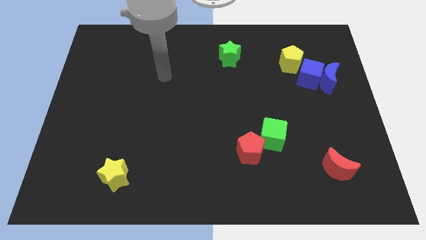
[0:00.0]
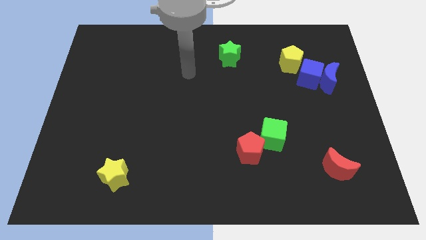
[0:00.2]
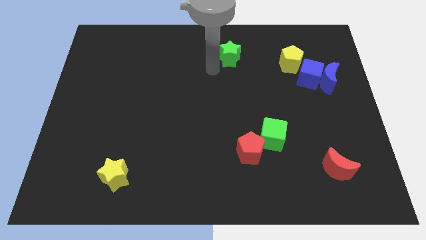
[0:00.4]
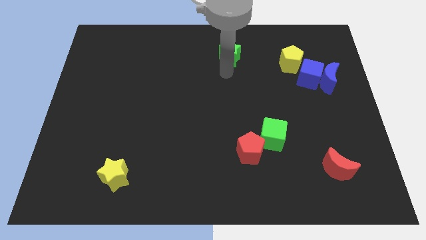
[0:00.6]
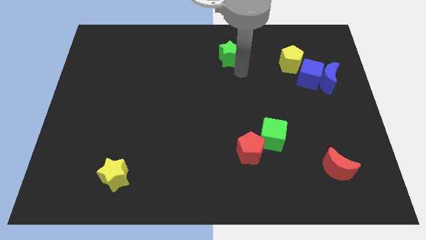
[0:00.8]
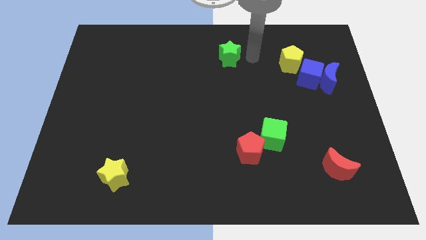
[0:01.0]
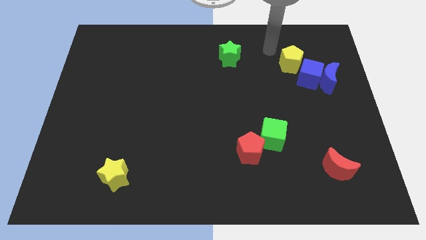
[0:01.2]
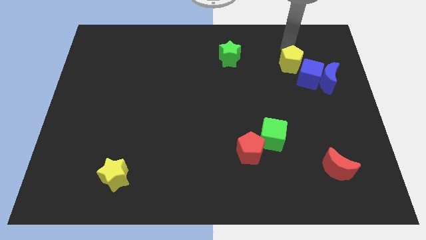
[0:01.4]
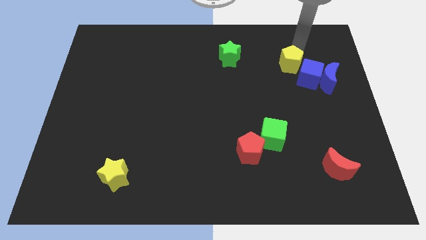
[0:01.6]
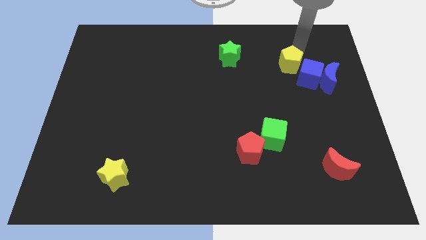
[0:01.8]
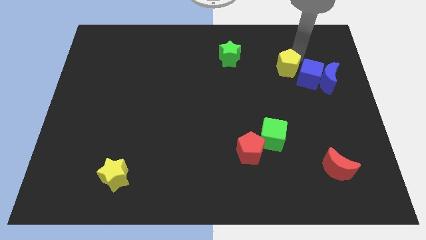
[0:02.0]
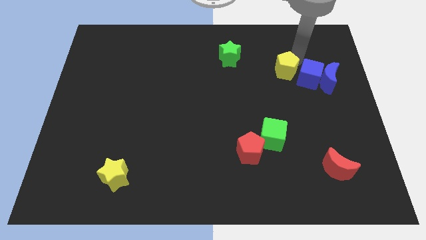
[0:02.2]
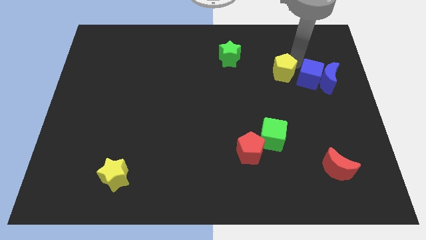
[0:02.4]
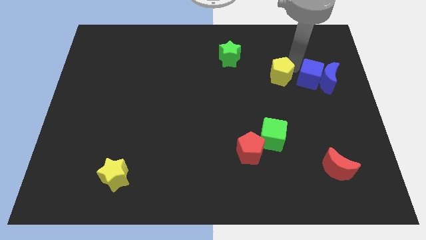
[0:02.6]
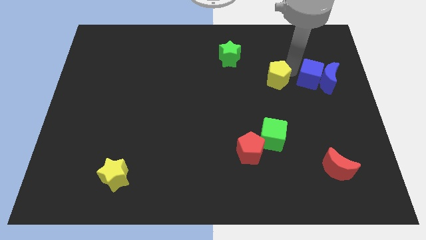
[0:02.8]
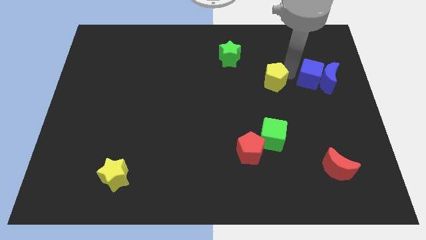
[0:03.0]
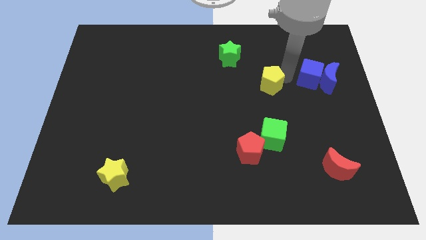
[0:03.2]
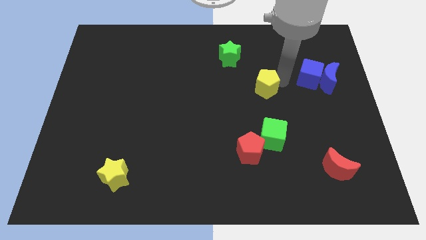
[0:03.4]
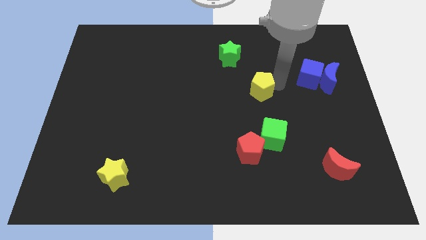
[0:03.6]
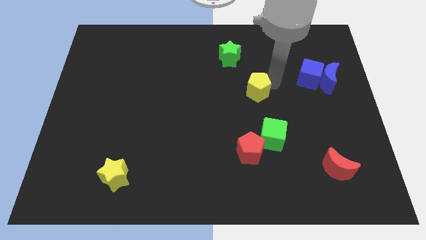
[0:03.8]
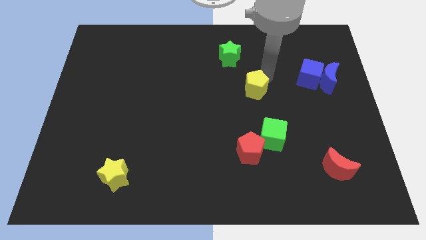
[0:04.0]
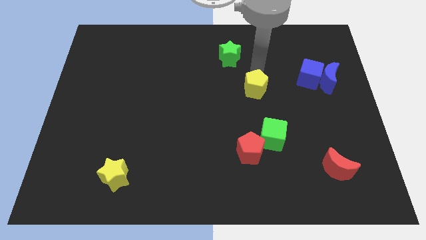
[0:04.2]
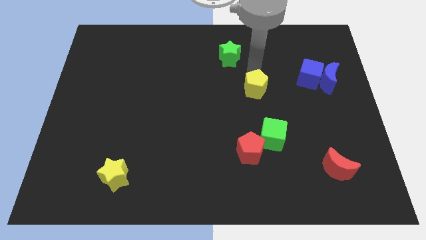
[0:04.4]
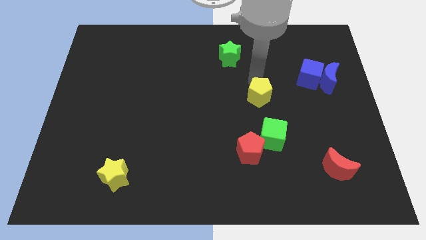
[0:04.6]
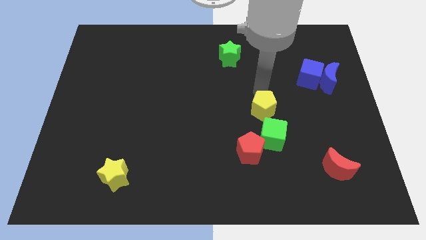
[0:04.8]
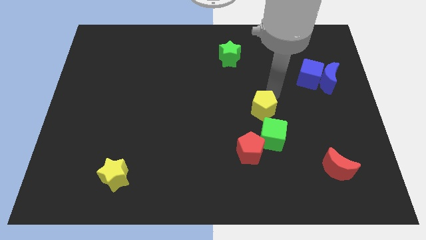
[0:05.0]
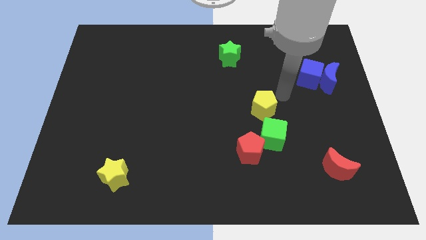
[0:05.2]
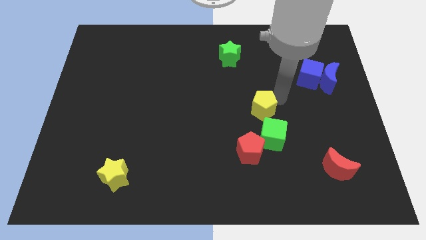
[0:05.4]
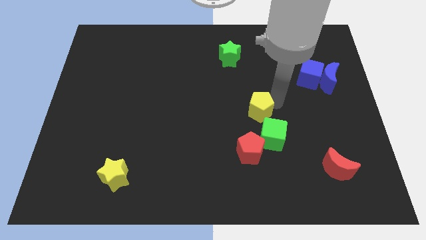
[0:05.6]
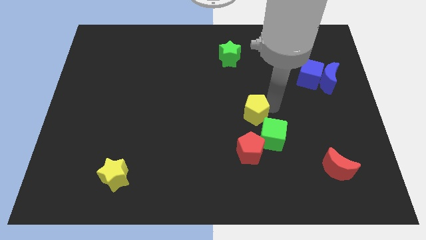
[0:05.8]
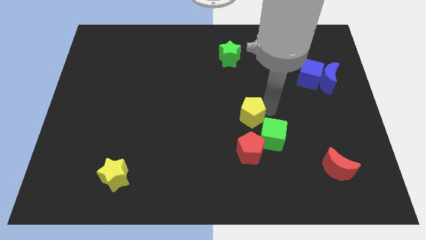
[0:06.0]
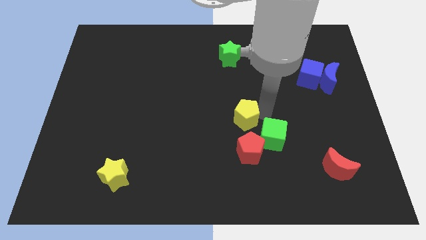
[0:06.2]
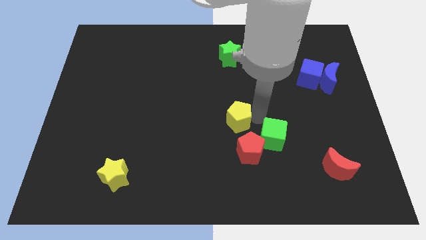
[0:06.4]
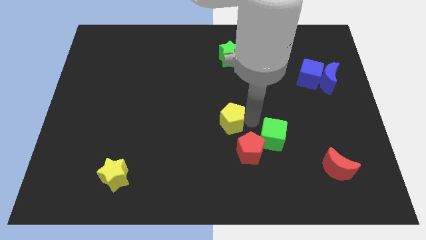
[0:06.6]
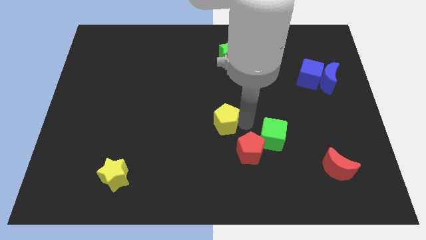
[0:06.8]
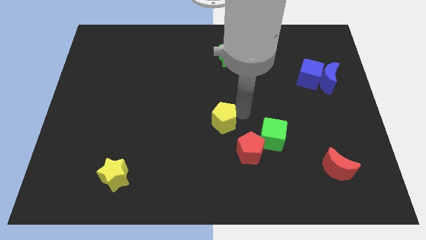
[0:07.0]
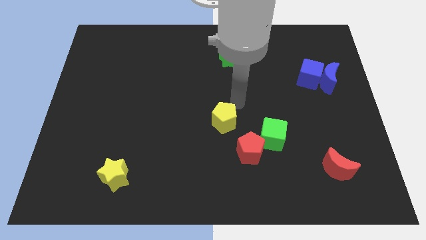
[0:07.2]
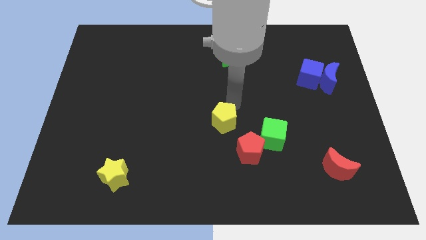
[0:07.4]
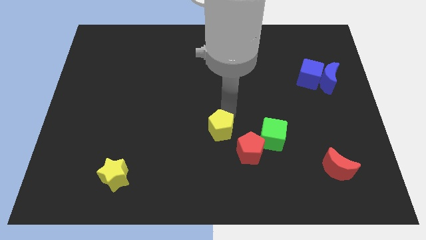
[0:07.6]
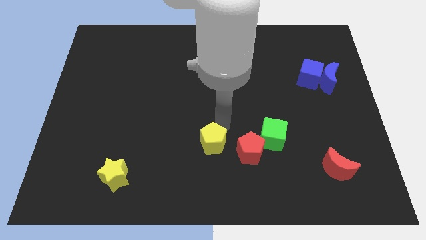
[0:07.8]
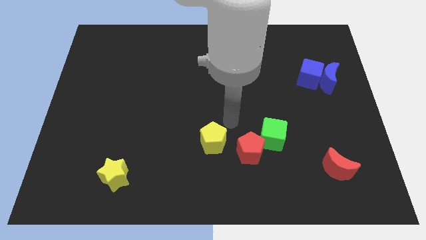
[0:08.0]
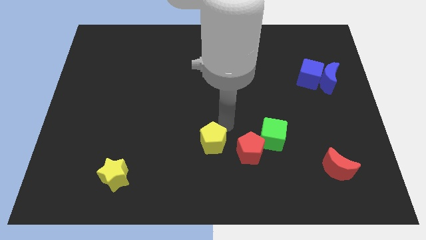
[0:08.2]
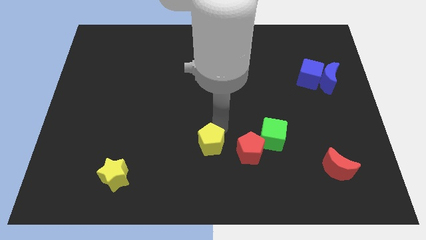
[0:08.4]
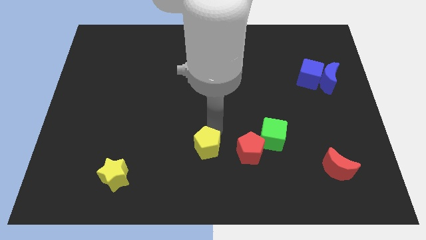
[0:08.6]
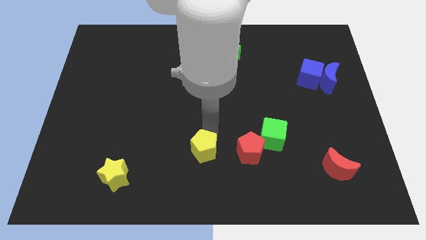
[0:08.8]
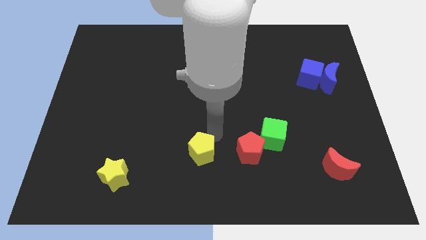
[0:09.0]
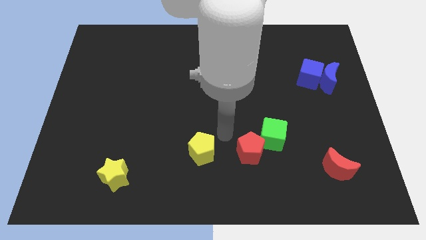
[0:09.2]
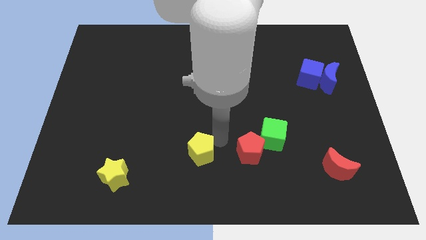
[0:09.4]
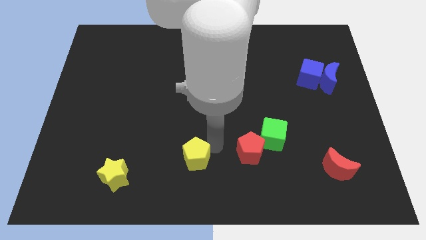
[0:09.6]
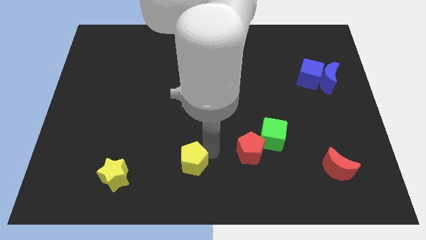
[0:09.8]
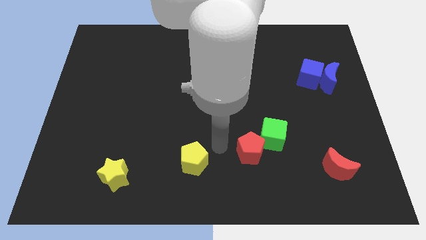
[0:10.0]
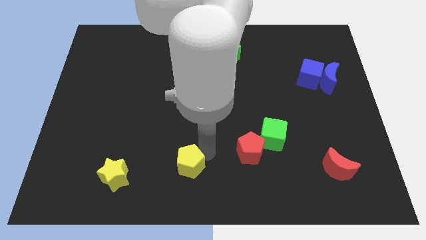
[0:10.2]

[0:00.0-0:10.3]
push the yellow pentagon right of the yellow star

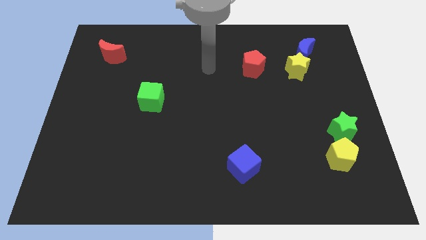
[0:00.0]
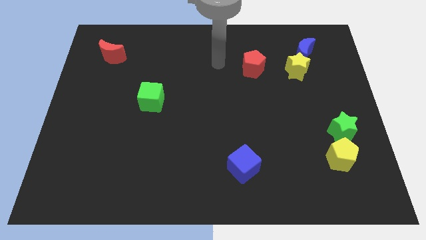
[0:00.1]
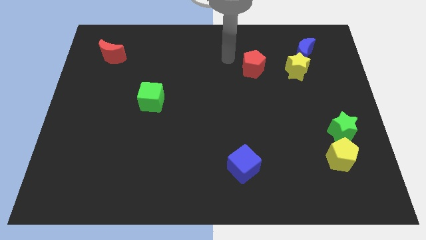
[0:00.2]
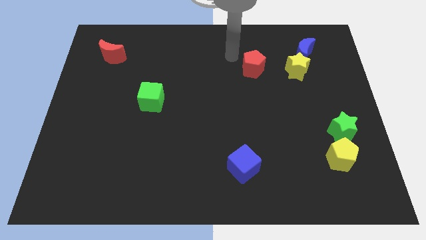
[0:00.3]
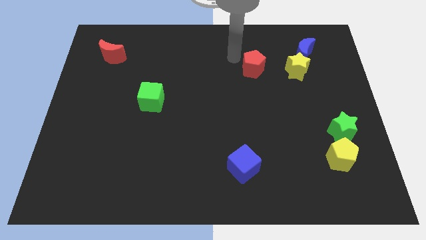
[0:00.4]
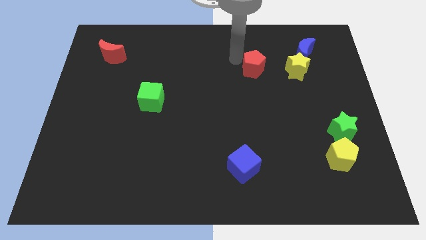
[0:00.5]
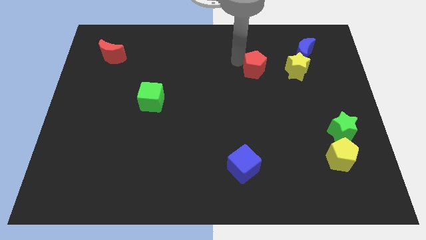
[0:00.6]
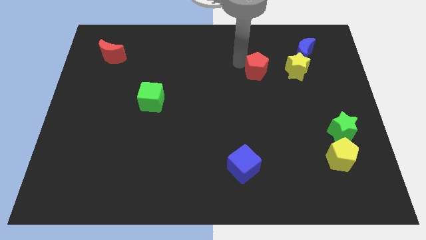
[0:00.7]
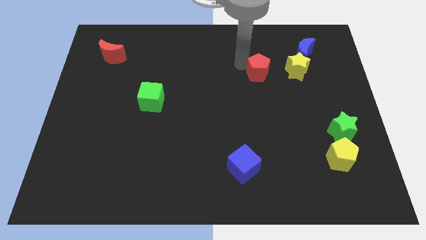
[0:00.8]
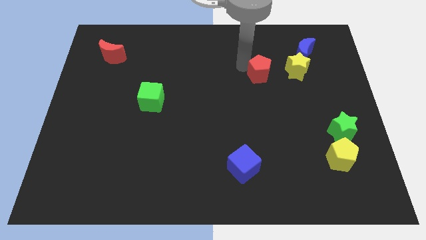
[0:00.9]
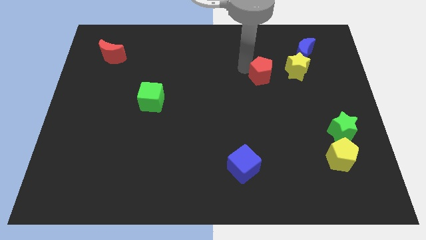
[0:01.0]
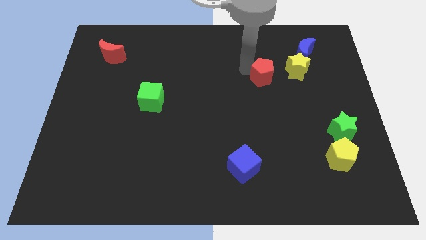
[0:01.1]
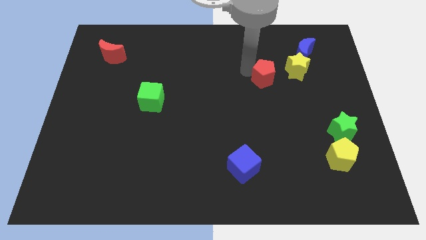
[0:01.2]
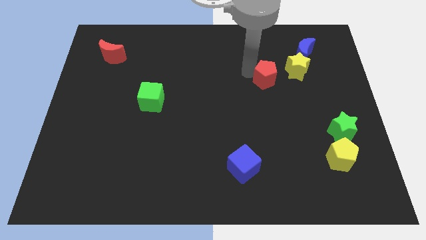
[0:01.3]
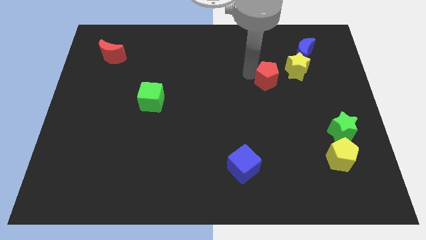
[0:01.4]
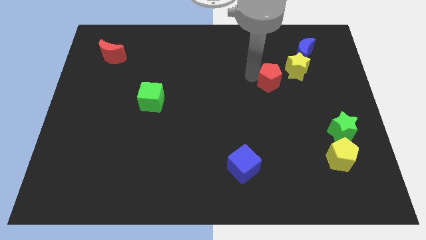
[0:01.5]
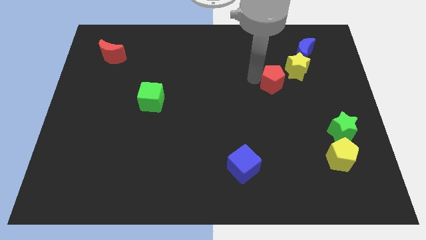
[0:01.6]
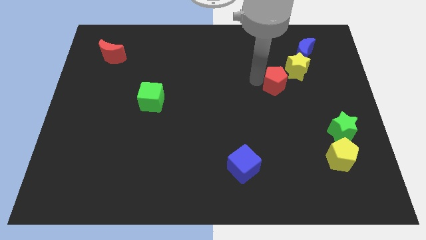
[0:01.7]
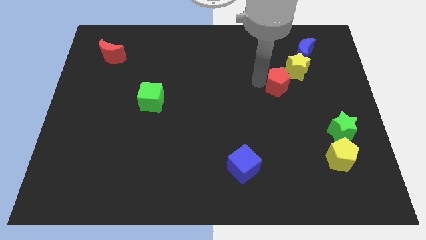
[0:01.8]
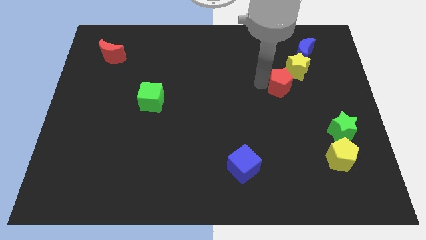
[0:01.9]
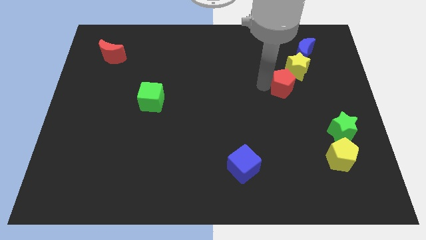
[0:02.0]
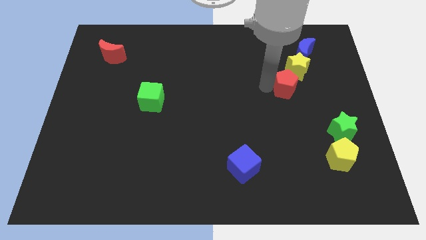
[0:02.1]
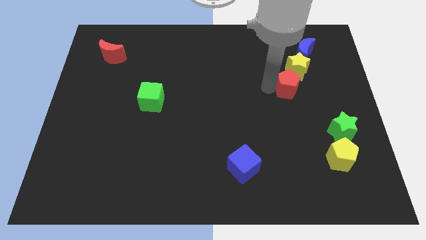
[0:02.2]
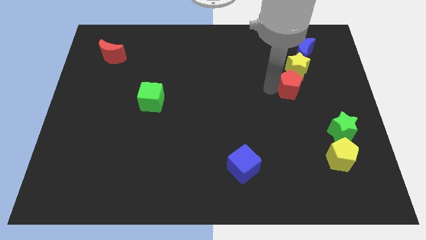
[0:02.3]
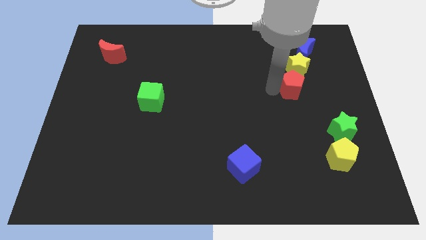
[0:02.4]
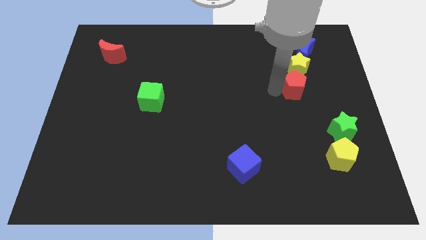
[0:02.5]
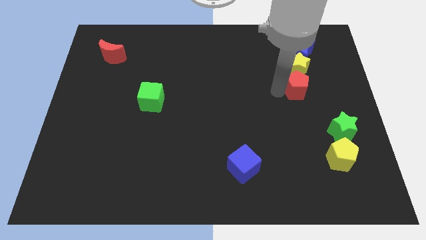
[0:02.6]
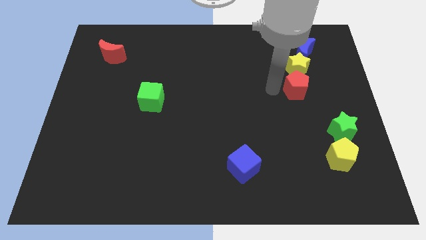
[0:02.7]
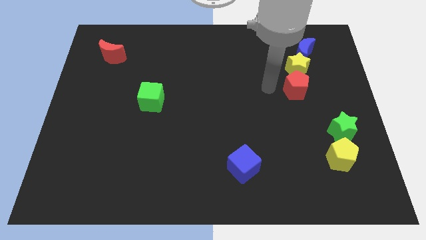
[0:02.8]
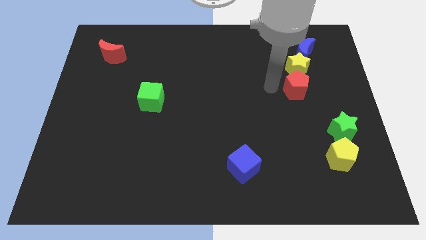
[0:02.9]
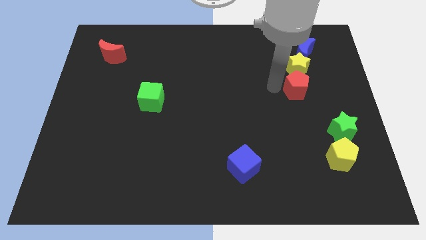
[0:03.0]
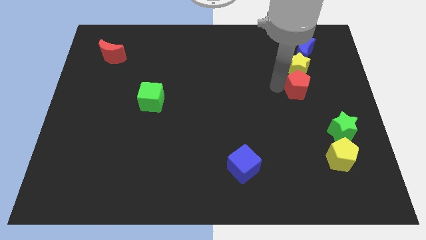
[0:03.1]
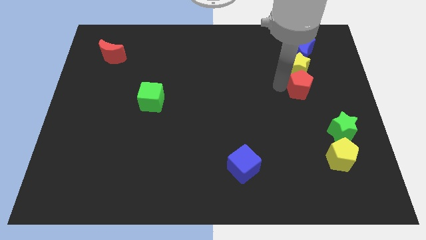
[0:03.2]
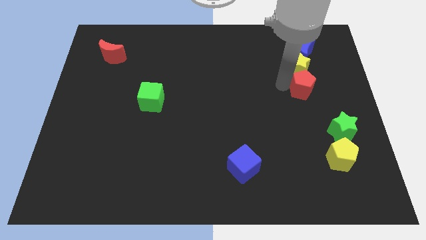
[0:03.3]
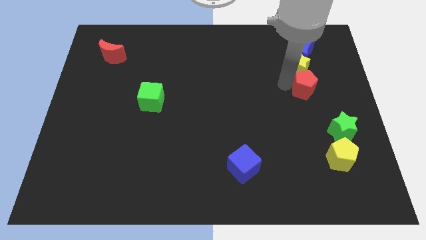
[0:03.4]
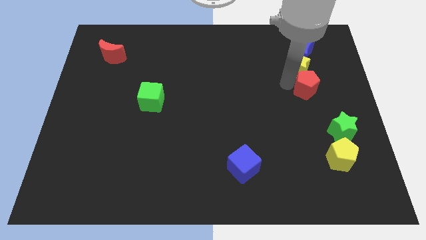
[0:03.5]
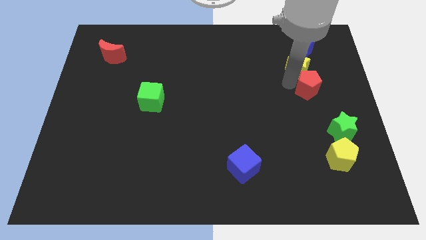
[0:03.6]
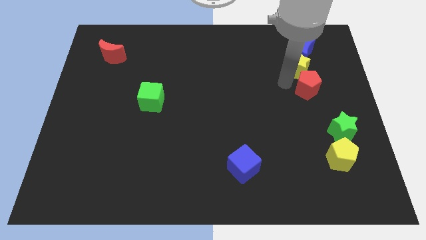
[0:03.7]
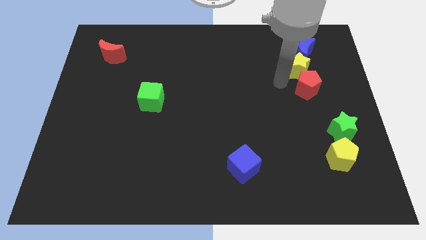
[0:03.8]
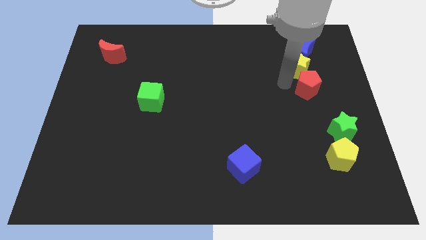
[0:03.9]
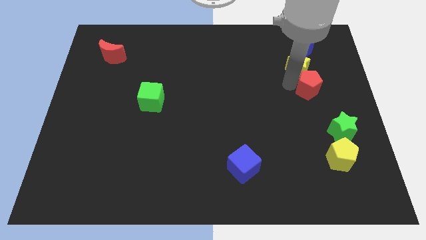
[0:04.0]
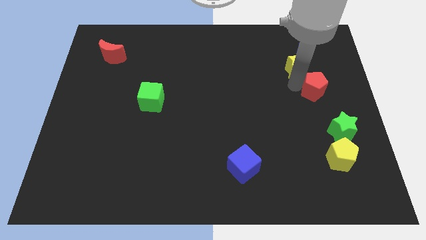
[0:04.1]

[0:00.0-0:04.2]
put the red pentagon to the top side of the green star
